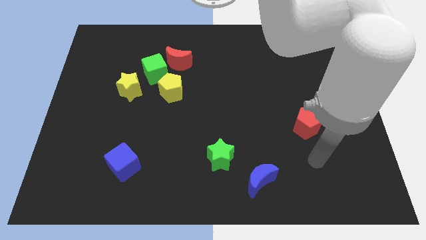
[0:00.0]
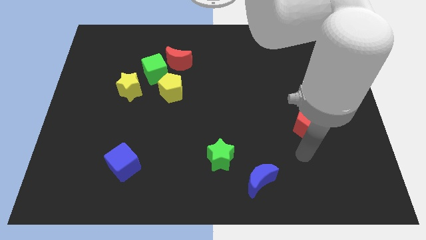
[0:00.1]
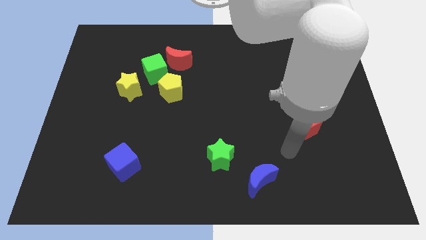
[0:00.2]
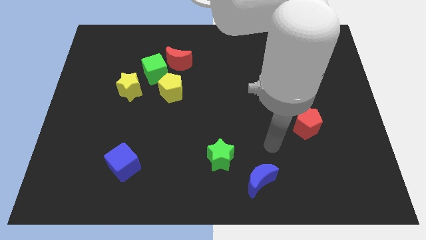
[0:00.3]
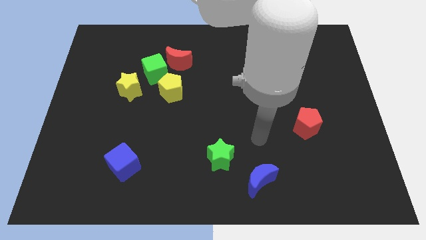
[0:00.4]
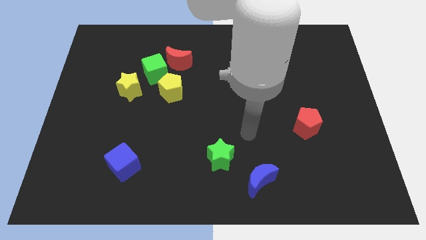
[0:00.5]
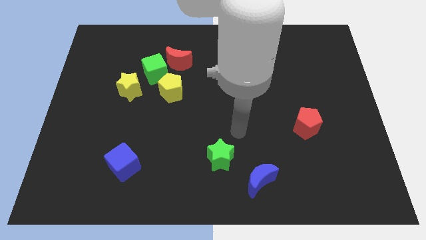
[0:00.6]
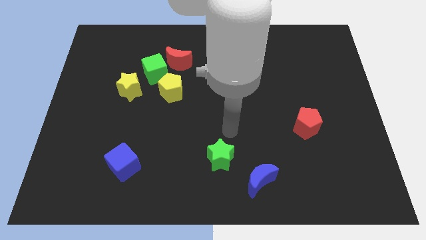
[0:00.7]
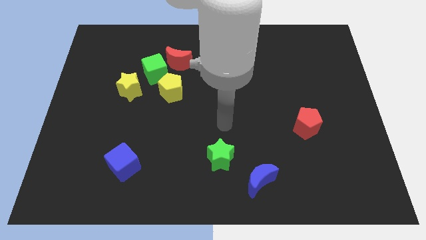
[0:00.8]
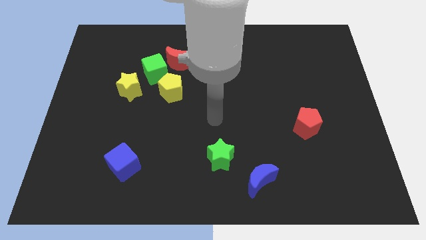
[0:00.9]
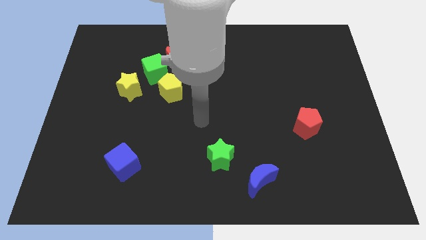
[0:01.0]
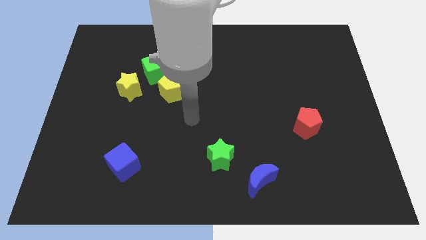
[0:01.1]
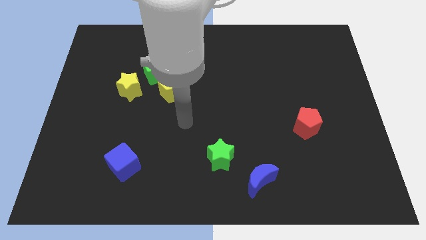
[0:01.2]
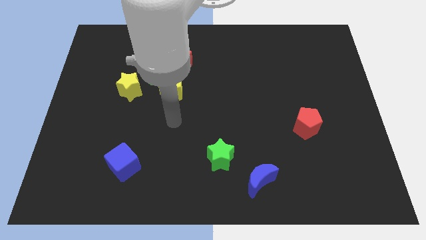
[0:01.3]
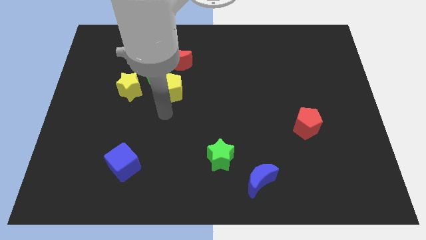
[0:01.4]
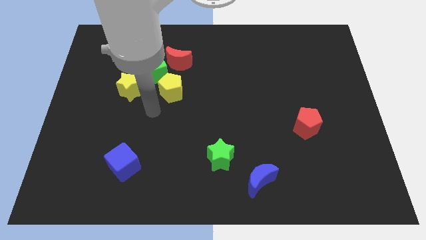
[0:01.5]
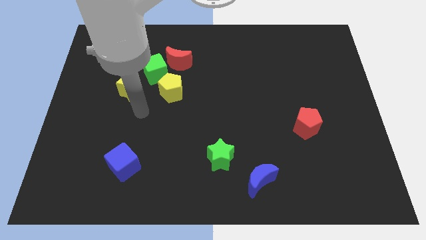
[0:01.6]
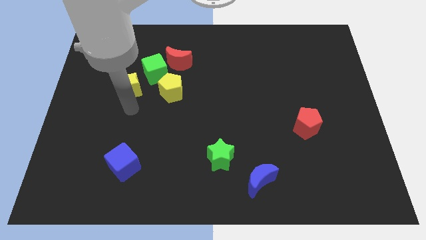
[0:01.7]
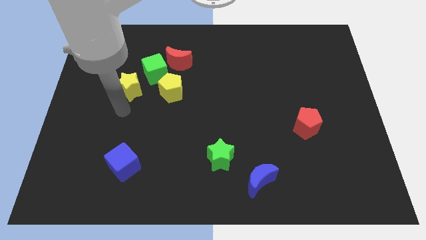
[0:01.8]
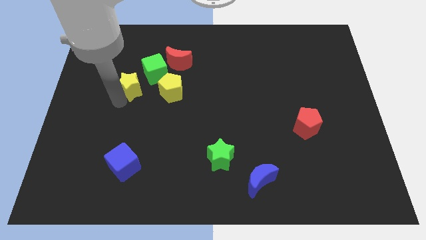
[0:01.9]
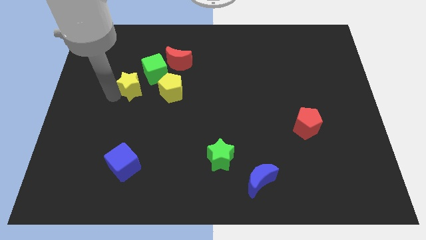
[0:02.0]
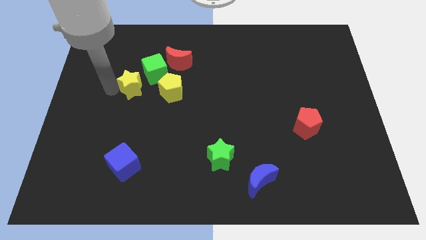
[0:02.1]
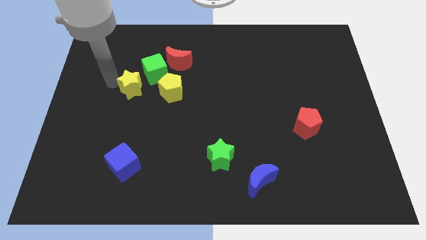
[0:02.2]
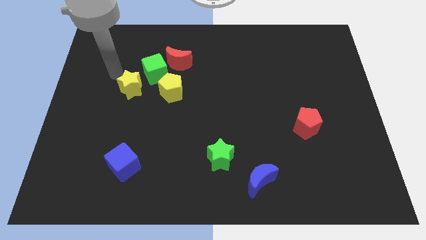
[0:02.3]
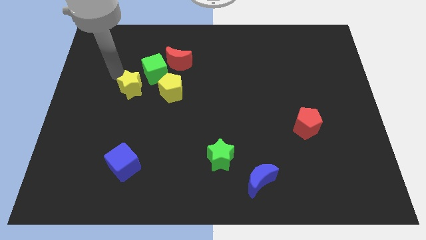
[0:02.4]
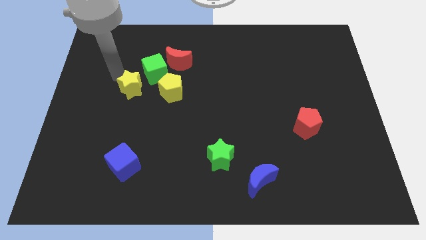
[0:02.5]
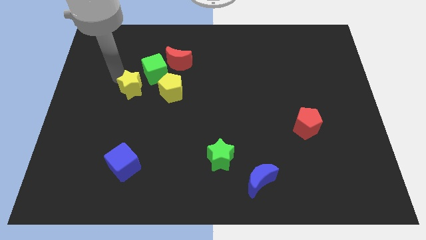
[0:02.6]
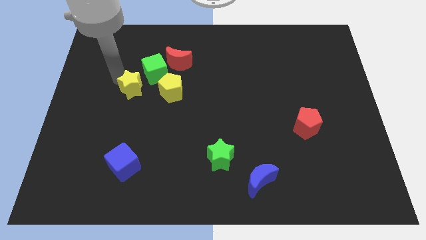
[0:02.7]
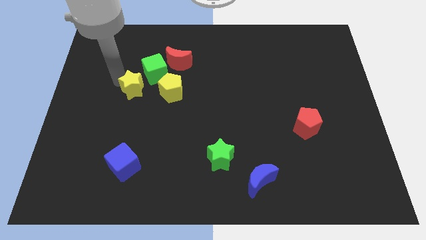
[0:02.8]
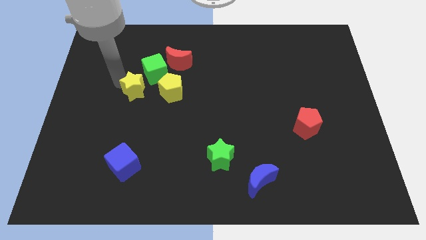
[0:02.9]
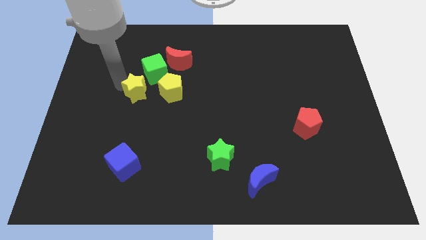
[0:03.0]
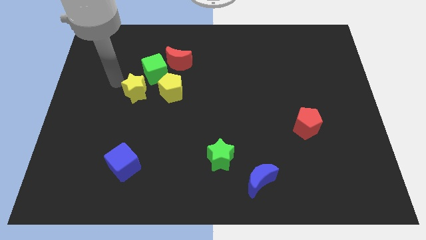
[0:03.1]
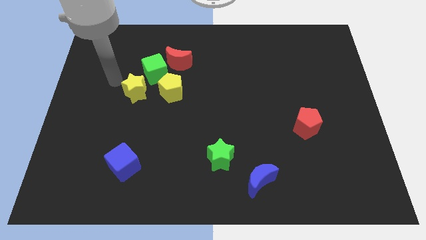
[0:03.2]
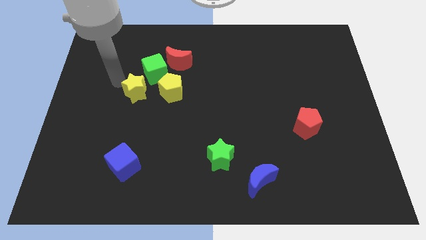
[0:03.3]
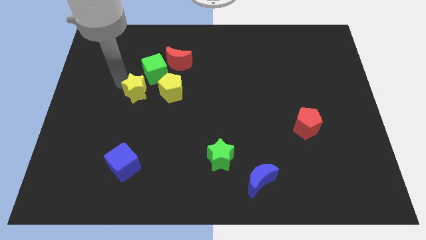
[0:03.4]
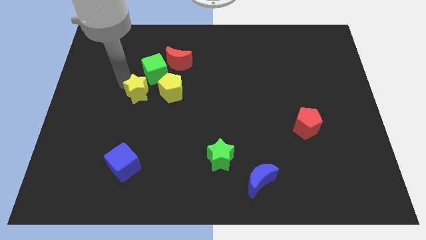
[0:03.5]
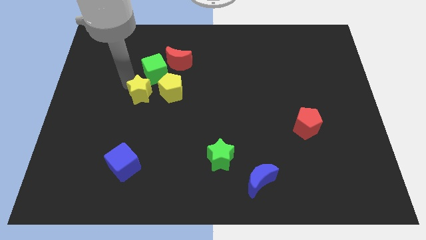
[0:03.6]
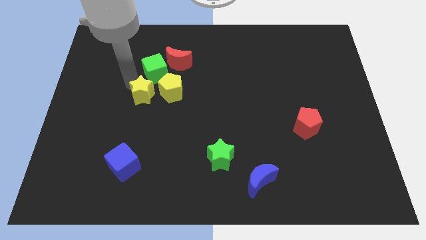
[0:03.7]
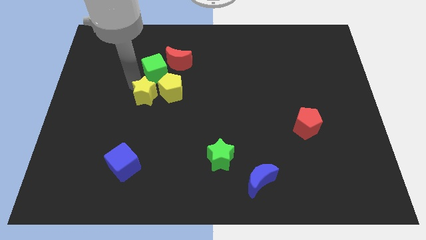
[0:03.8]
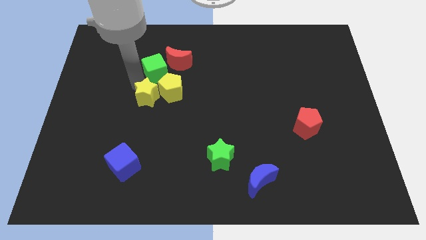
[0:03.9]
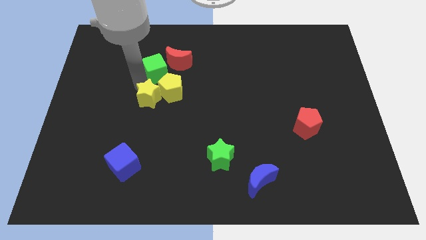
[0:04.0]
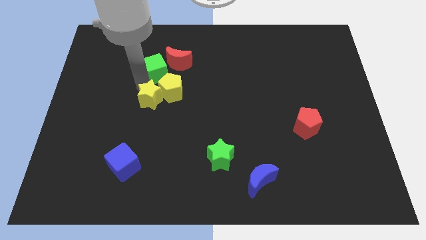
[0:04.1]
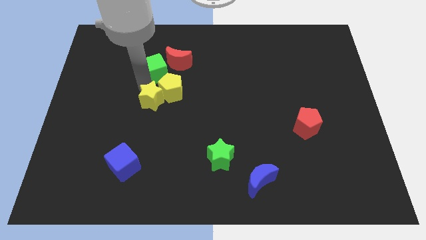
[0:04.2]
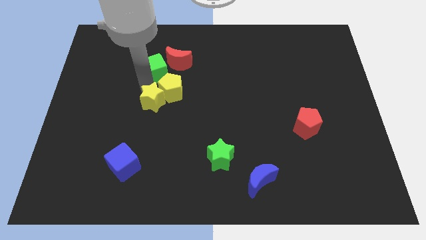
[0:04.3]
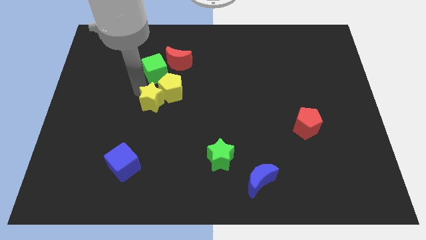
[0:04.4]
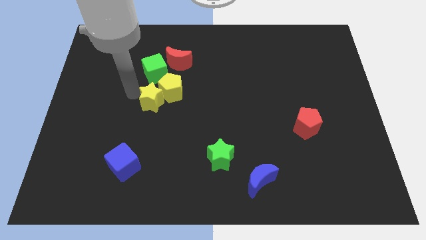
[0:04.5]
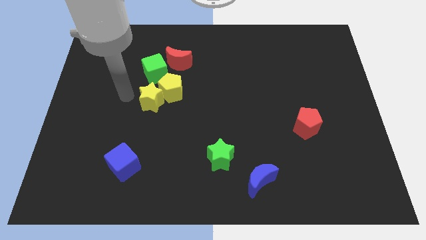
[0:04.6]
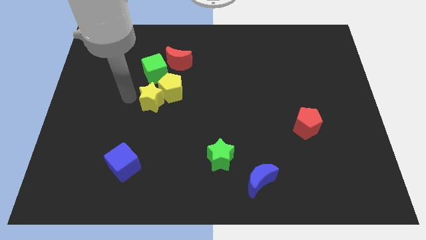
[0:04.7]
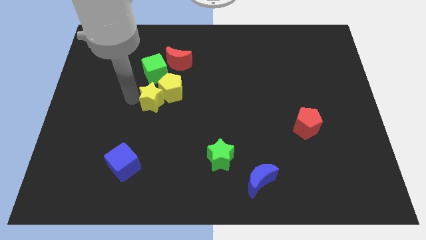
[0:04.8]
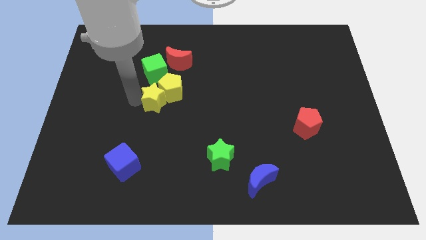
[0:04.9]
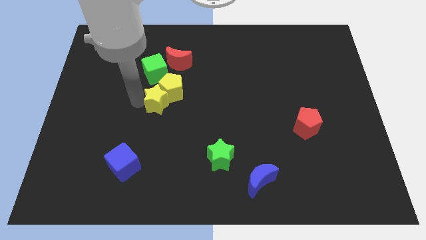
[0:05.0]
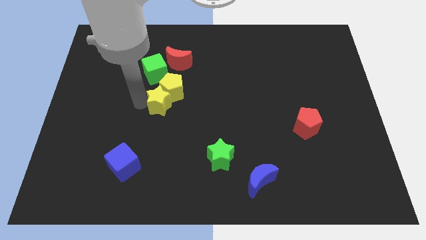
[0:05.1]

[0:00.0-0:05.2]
slide the yellow star somewhat right

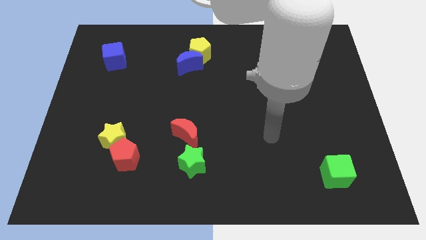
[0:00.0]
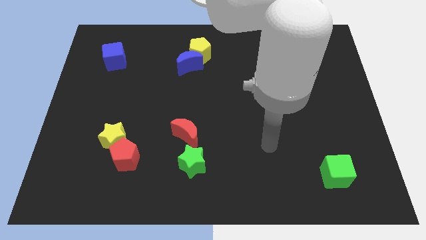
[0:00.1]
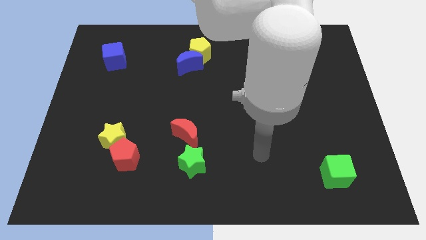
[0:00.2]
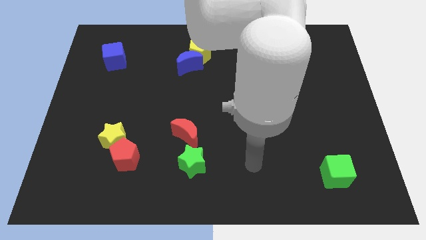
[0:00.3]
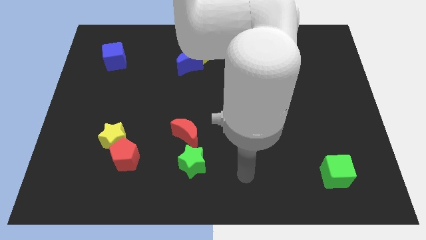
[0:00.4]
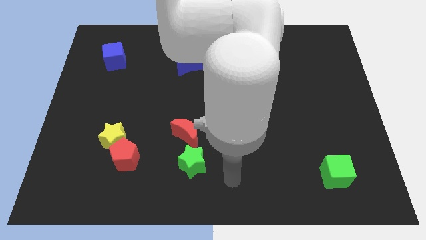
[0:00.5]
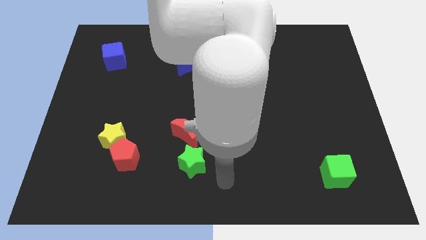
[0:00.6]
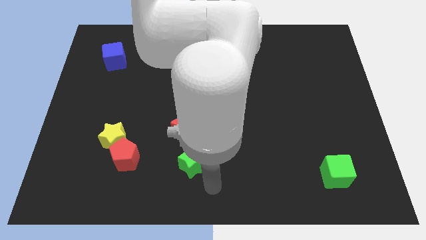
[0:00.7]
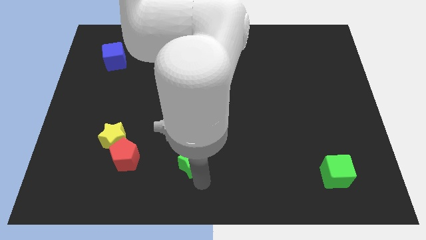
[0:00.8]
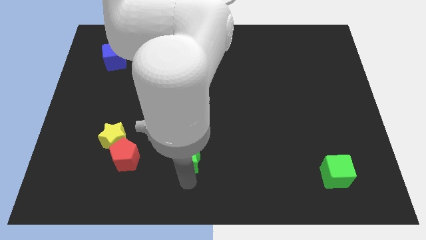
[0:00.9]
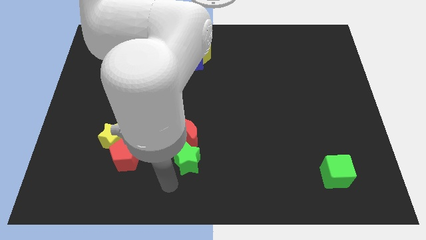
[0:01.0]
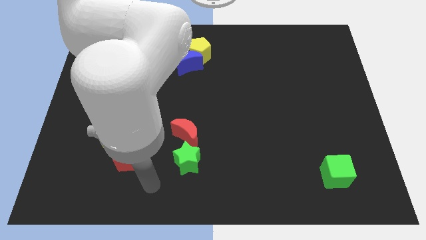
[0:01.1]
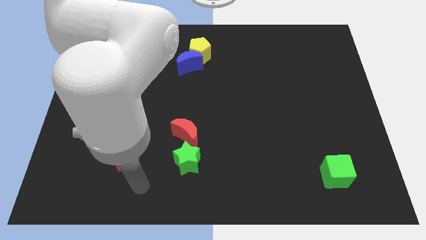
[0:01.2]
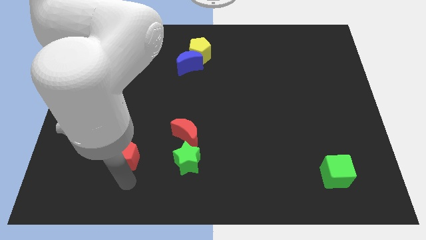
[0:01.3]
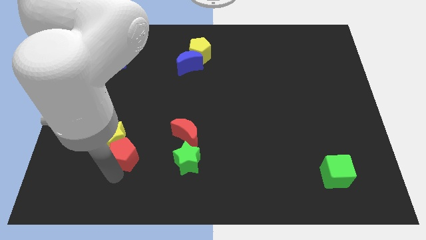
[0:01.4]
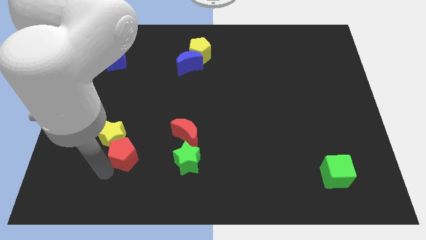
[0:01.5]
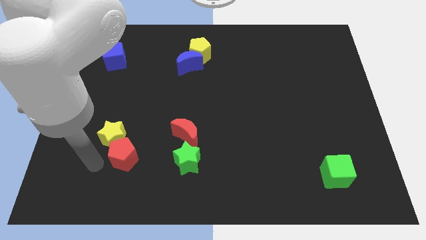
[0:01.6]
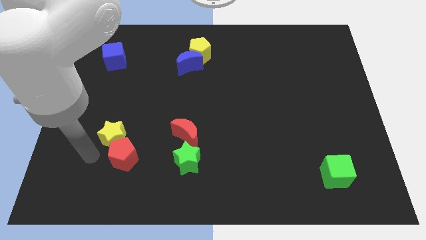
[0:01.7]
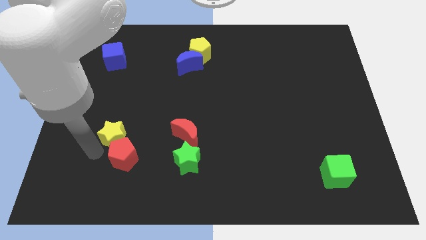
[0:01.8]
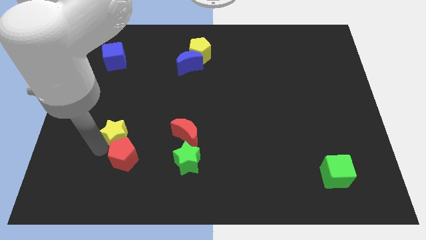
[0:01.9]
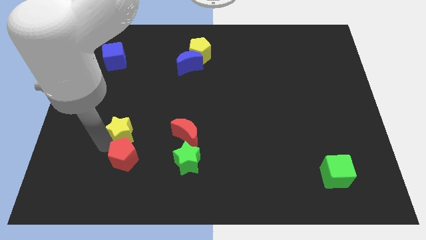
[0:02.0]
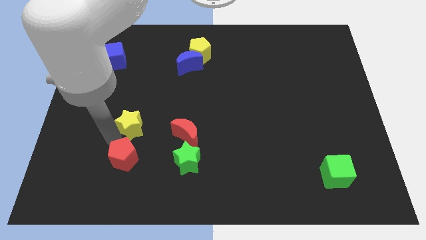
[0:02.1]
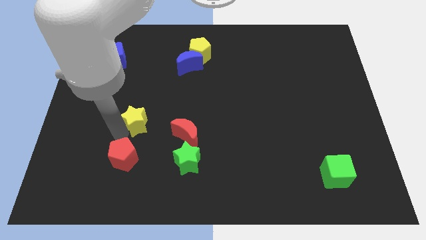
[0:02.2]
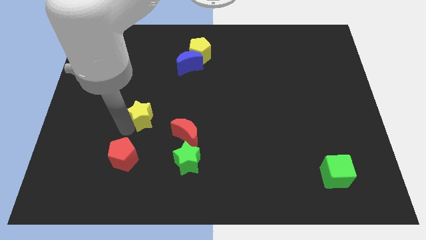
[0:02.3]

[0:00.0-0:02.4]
push the yellow star a bit upwards and then right

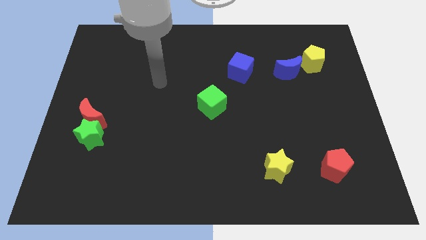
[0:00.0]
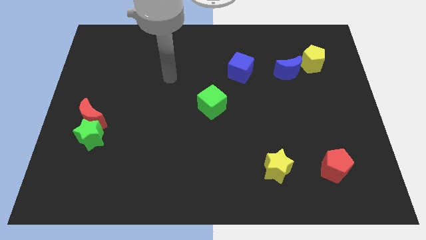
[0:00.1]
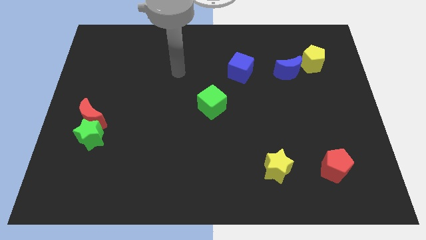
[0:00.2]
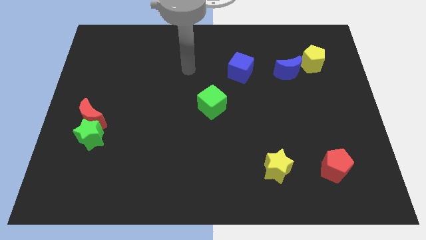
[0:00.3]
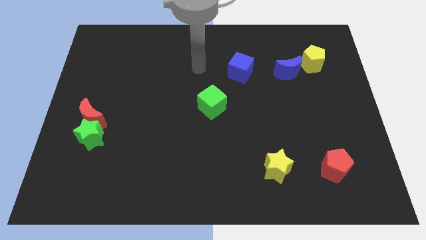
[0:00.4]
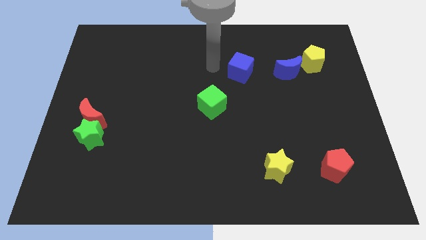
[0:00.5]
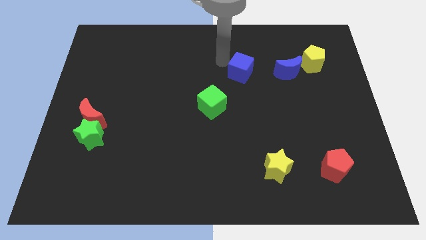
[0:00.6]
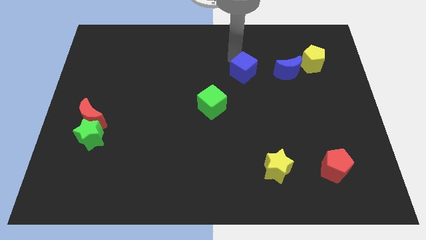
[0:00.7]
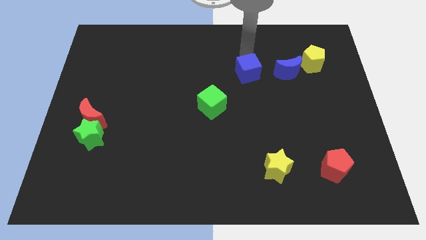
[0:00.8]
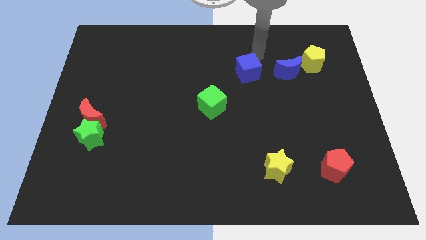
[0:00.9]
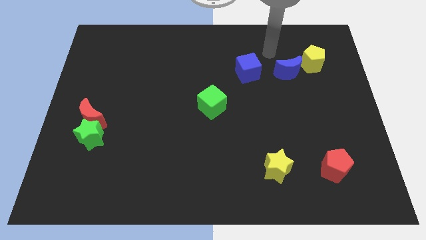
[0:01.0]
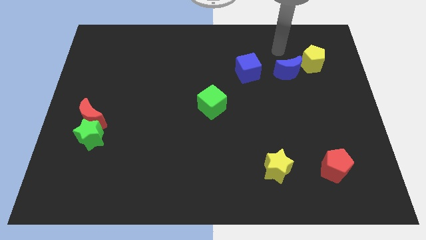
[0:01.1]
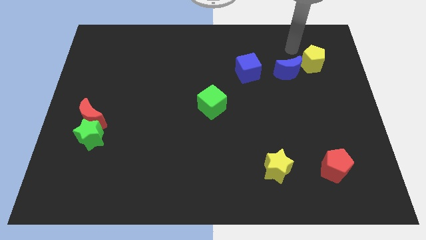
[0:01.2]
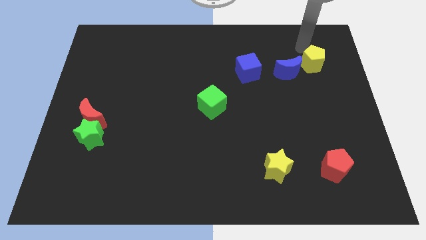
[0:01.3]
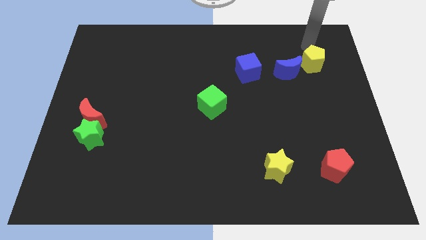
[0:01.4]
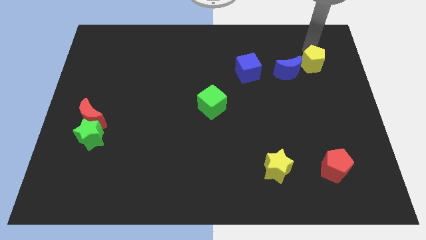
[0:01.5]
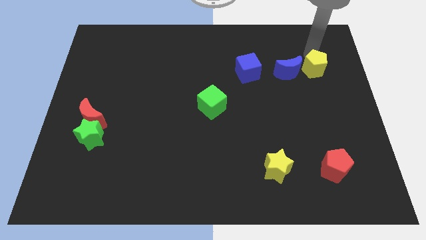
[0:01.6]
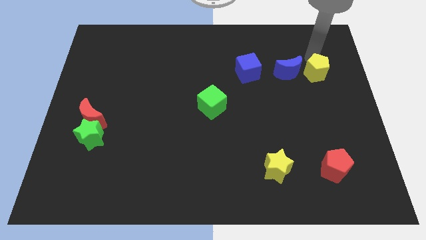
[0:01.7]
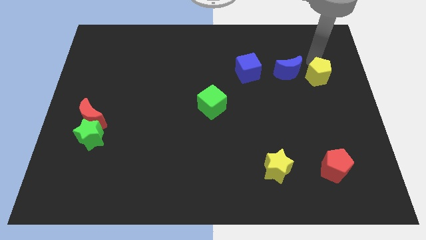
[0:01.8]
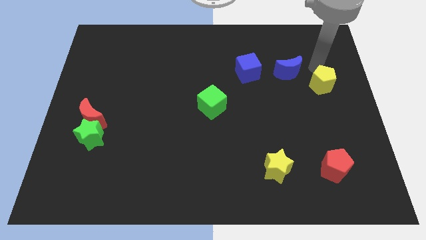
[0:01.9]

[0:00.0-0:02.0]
push the yellow pentagon downwards somewhat
